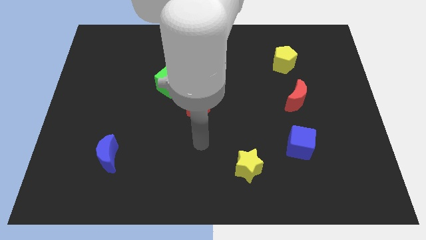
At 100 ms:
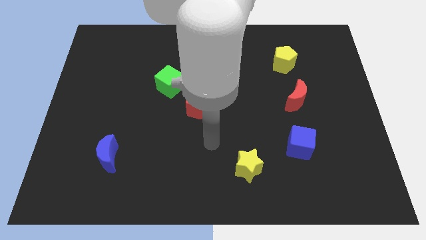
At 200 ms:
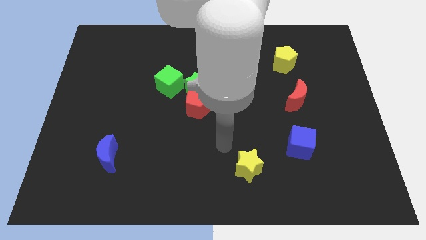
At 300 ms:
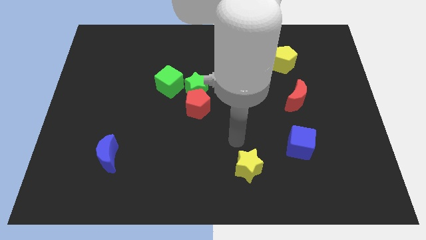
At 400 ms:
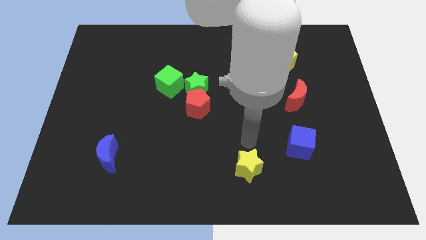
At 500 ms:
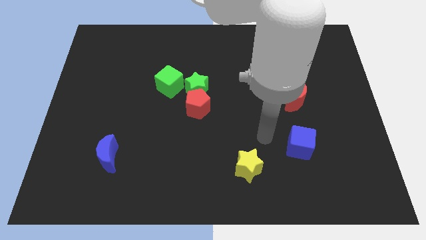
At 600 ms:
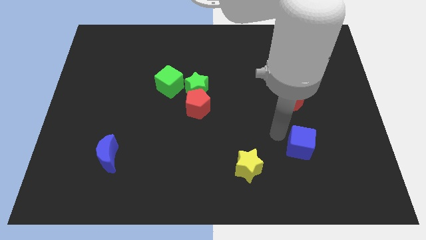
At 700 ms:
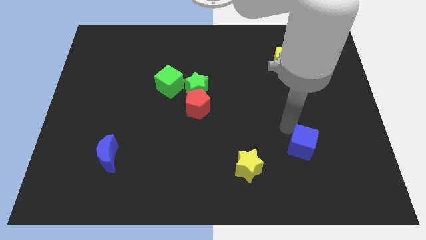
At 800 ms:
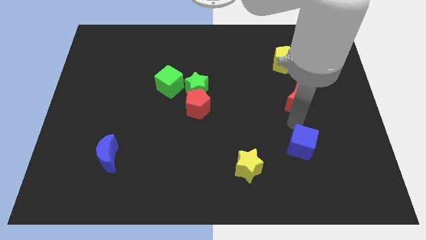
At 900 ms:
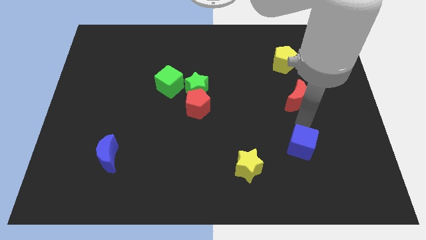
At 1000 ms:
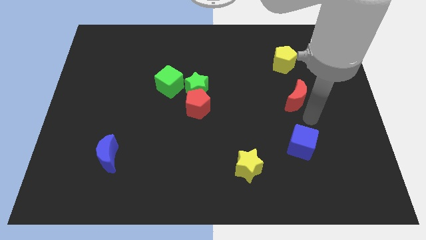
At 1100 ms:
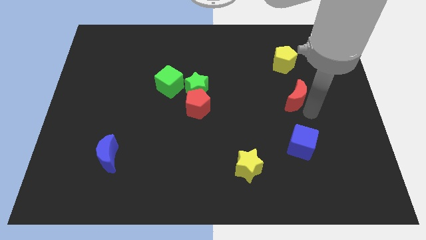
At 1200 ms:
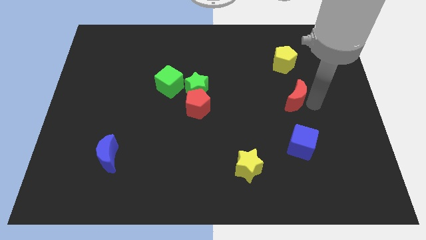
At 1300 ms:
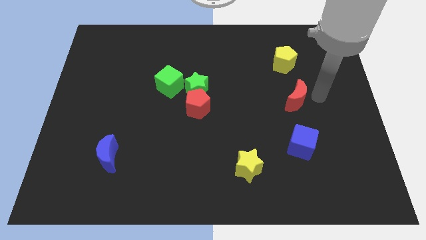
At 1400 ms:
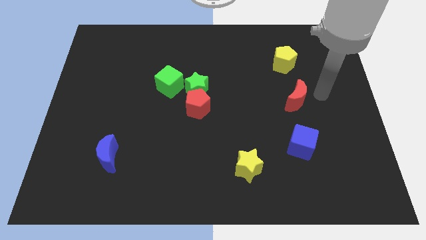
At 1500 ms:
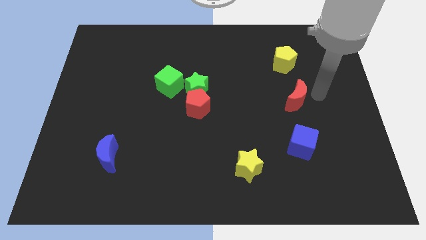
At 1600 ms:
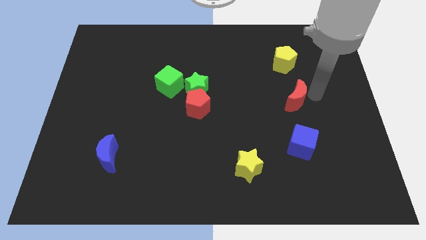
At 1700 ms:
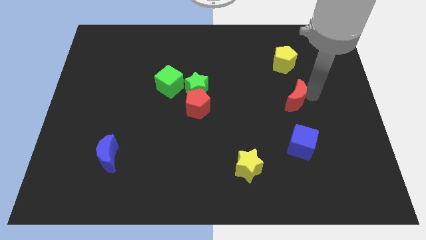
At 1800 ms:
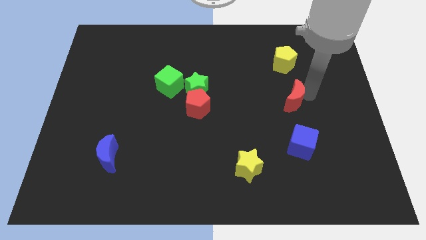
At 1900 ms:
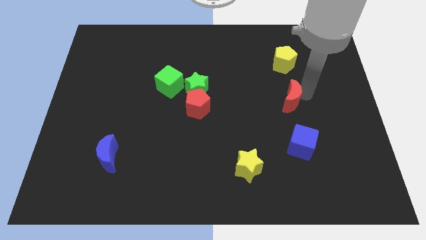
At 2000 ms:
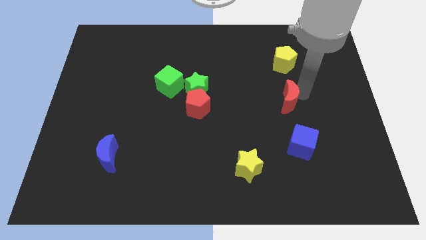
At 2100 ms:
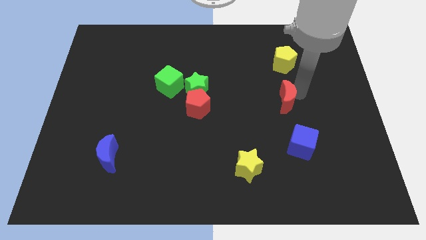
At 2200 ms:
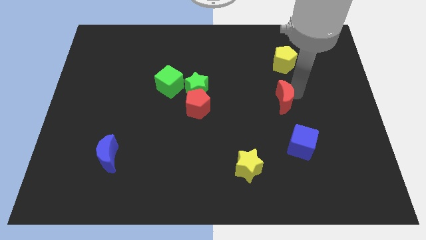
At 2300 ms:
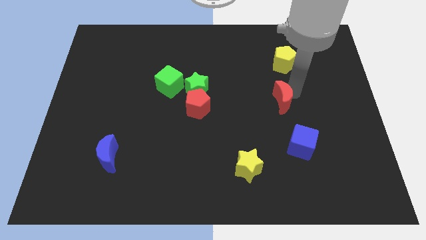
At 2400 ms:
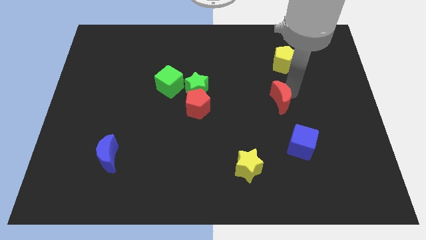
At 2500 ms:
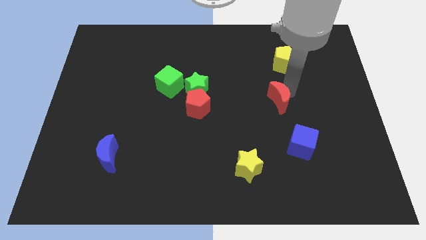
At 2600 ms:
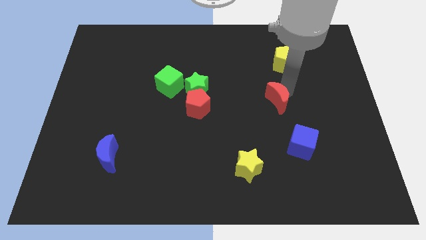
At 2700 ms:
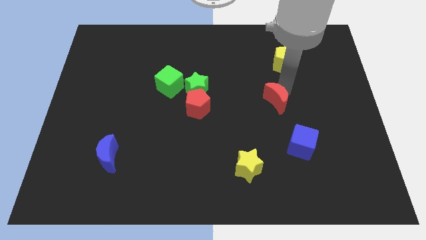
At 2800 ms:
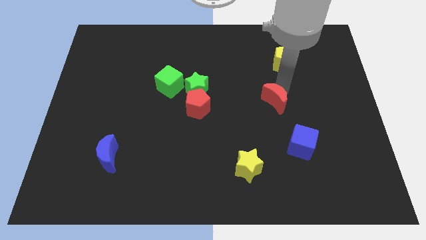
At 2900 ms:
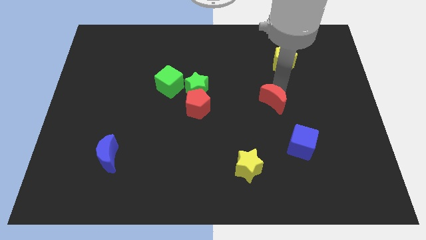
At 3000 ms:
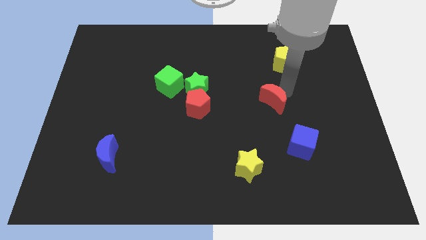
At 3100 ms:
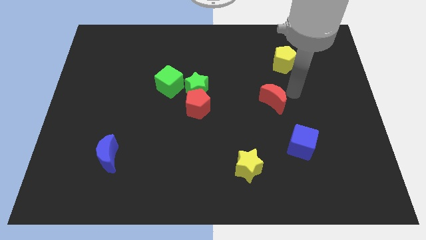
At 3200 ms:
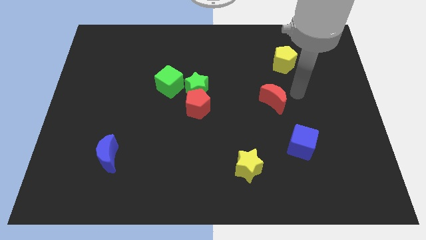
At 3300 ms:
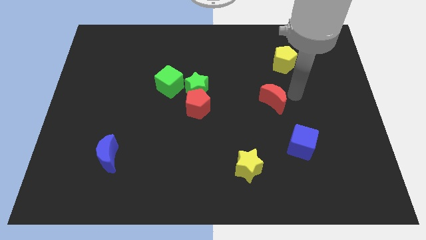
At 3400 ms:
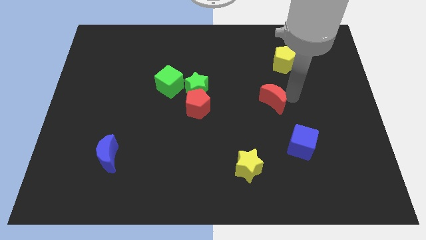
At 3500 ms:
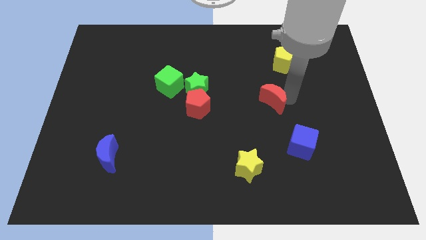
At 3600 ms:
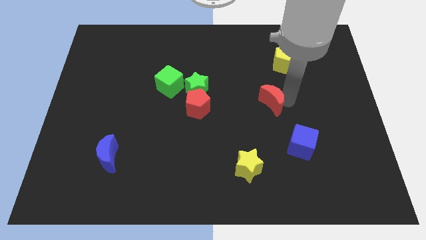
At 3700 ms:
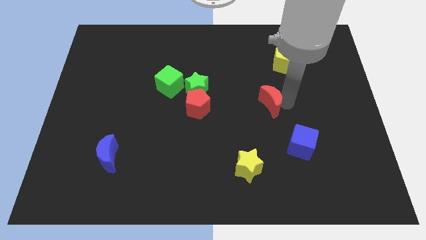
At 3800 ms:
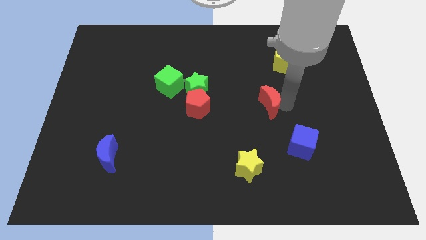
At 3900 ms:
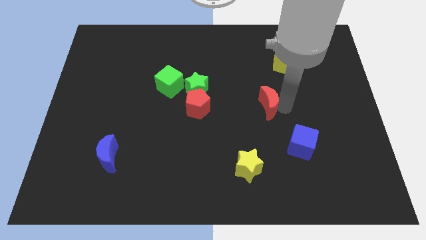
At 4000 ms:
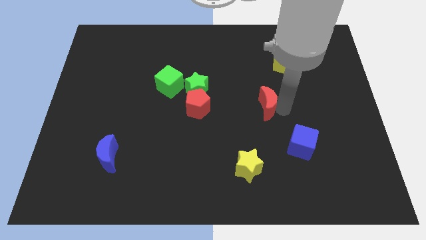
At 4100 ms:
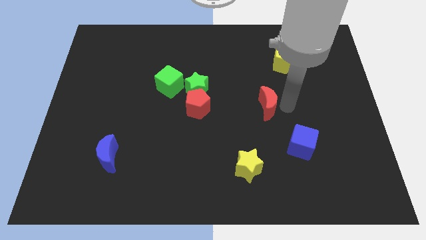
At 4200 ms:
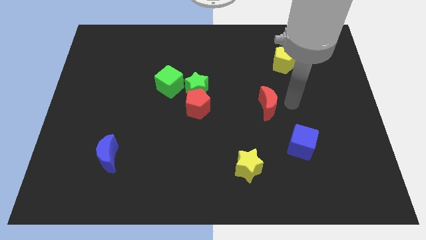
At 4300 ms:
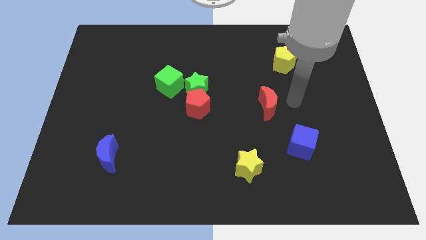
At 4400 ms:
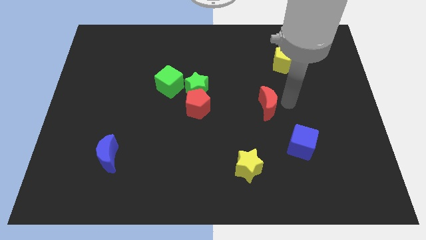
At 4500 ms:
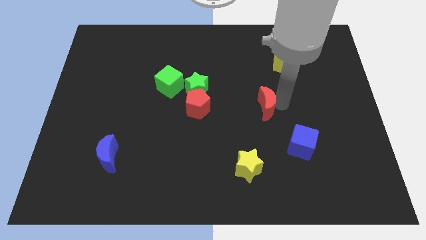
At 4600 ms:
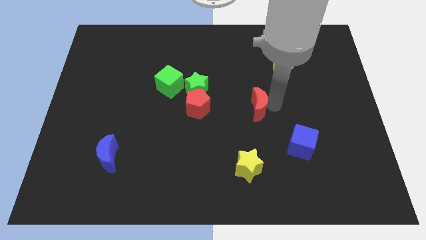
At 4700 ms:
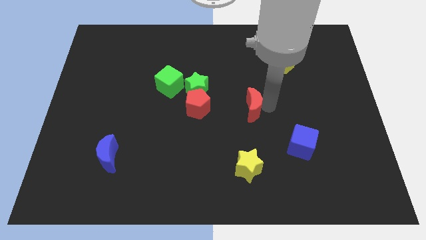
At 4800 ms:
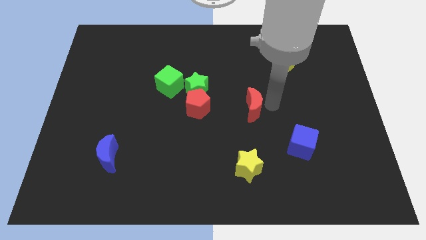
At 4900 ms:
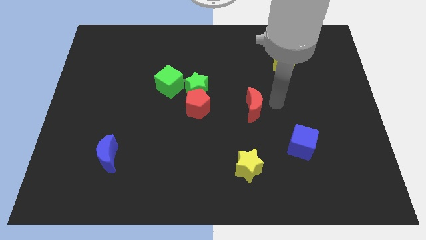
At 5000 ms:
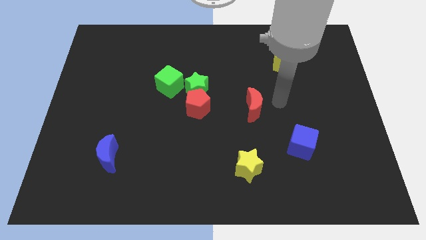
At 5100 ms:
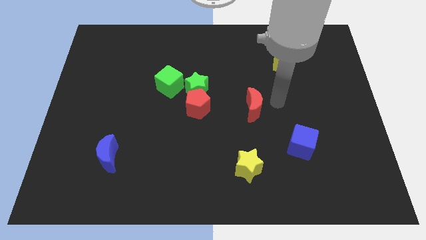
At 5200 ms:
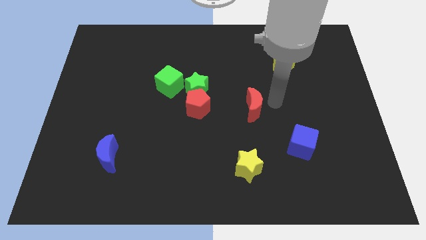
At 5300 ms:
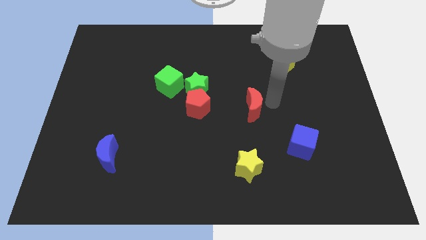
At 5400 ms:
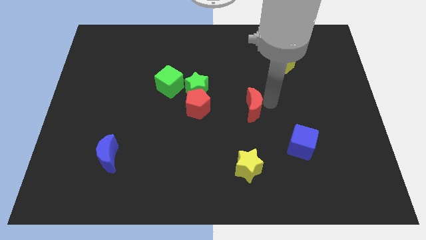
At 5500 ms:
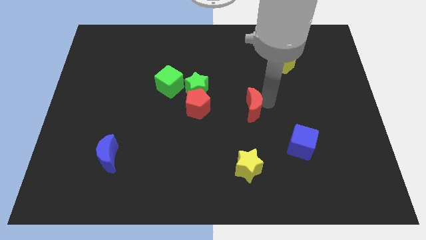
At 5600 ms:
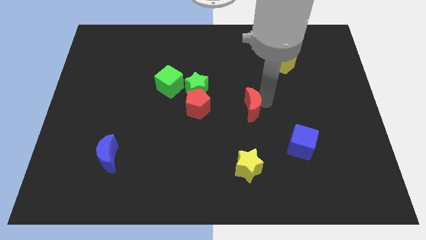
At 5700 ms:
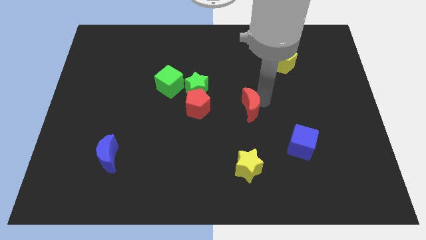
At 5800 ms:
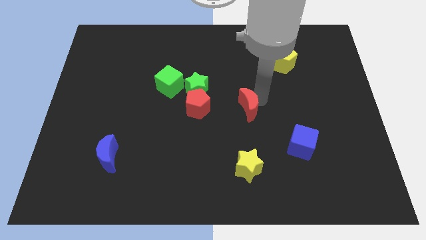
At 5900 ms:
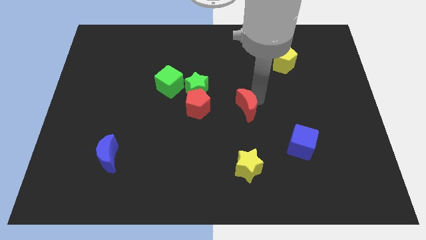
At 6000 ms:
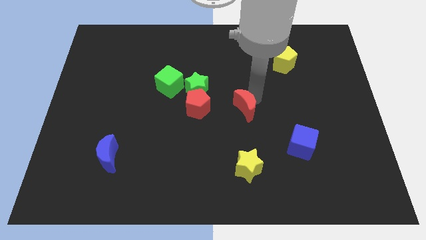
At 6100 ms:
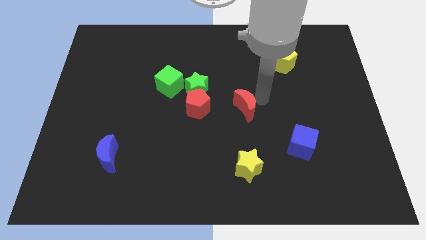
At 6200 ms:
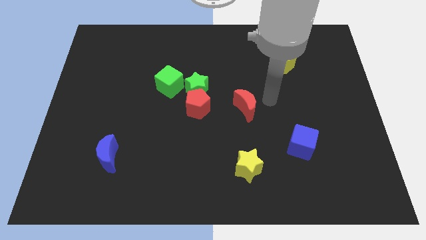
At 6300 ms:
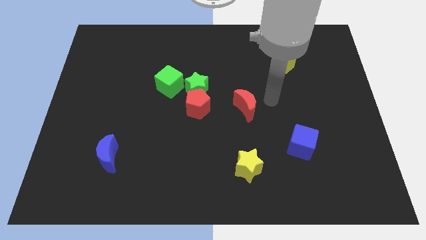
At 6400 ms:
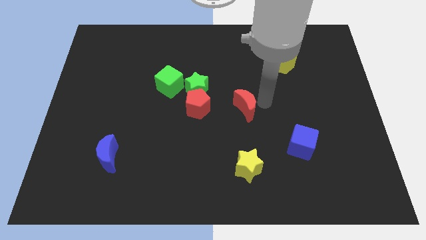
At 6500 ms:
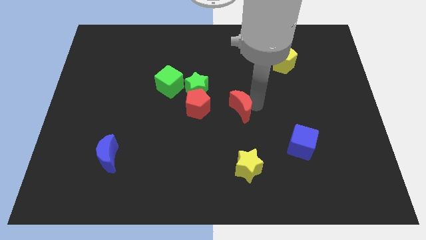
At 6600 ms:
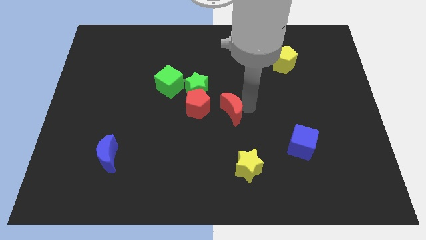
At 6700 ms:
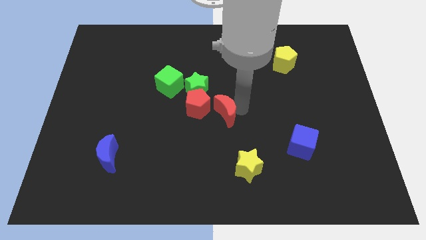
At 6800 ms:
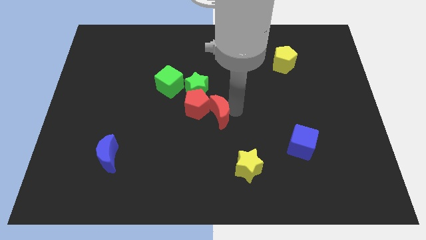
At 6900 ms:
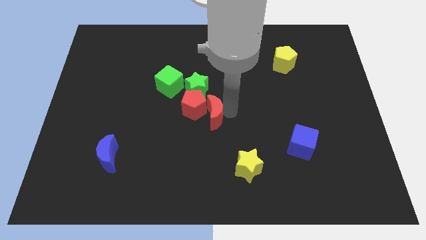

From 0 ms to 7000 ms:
move the red moon below the green star

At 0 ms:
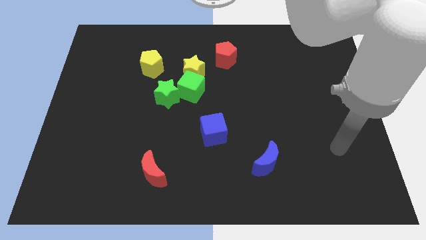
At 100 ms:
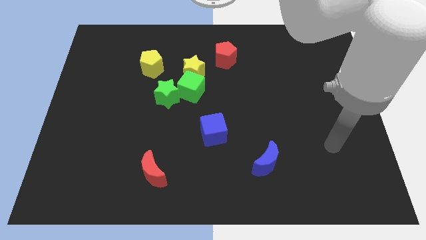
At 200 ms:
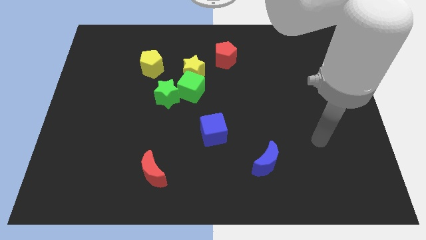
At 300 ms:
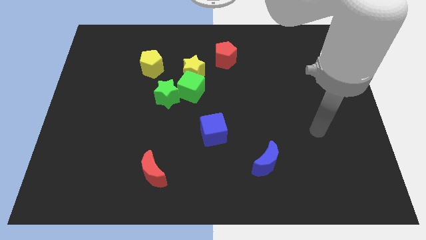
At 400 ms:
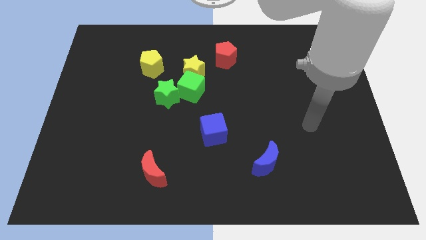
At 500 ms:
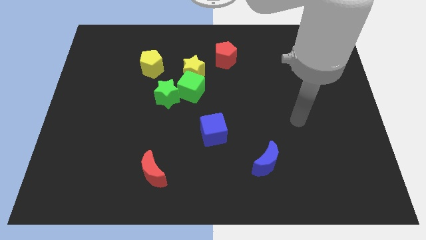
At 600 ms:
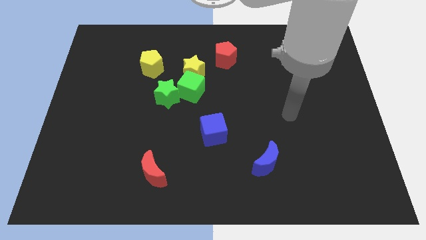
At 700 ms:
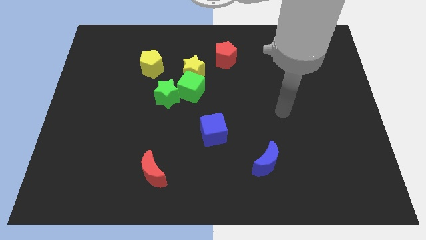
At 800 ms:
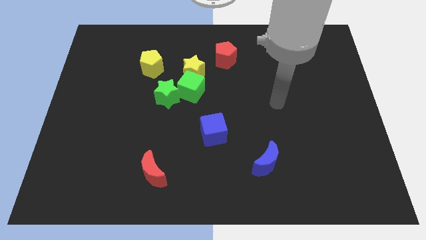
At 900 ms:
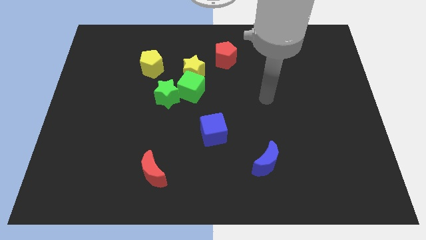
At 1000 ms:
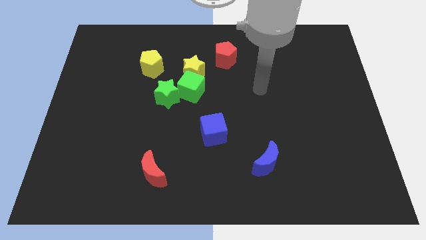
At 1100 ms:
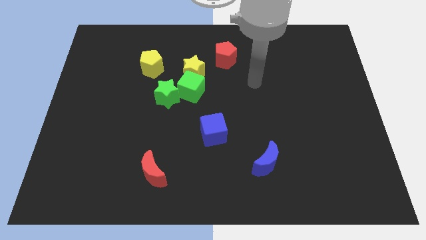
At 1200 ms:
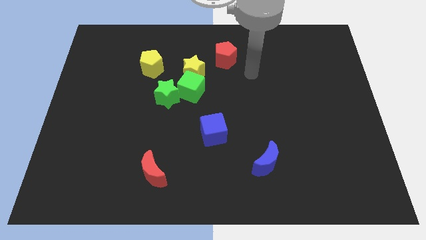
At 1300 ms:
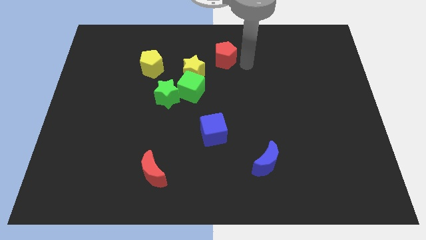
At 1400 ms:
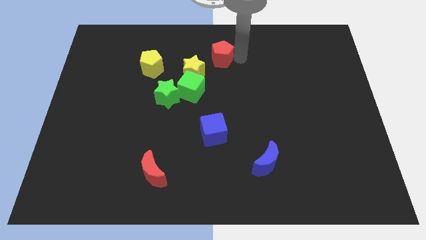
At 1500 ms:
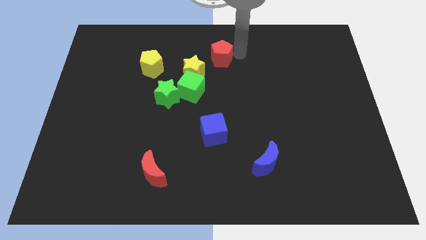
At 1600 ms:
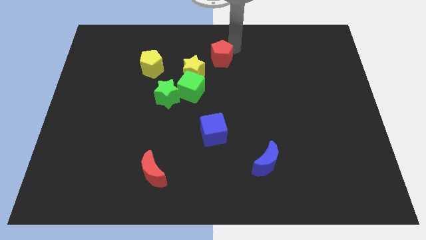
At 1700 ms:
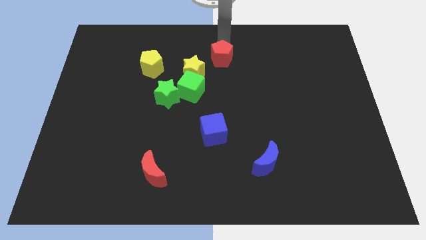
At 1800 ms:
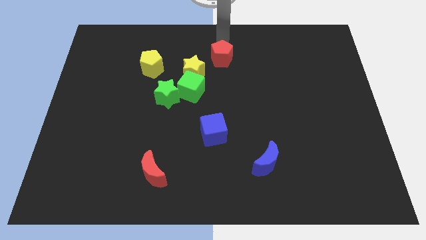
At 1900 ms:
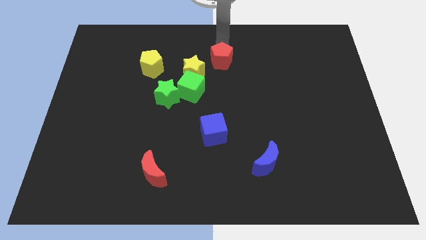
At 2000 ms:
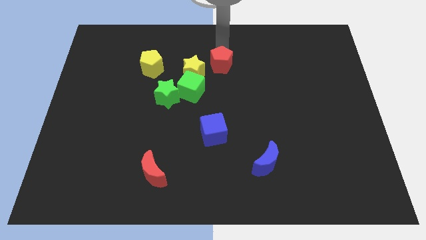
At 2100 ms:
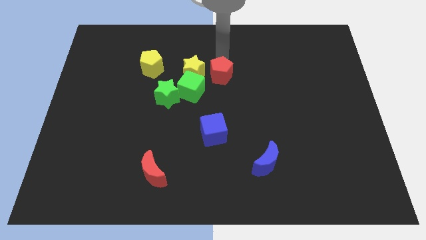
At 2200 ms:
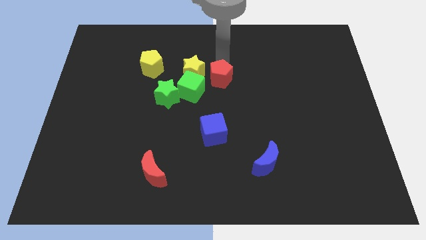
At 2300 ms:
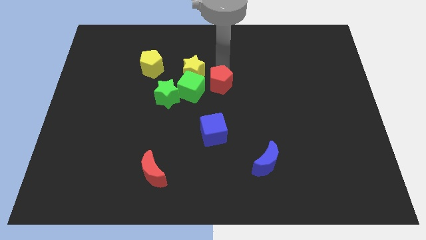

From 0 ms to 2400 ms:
slide the red pentagon to the right of the green star
